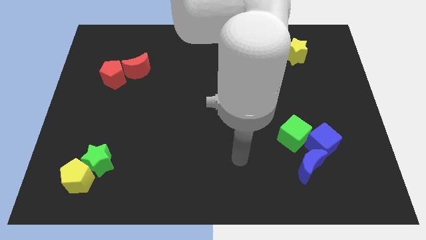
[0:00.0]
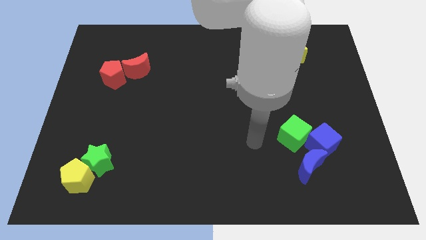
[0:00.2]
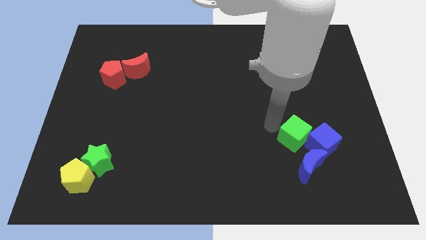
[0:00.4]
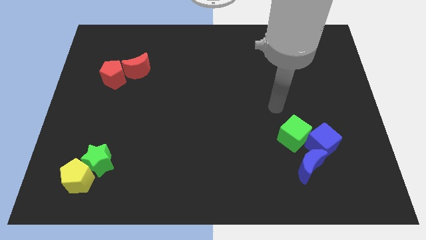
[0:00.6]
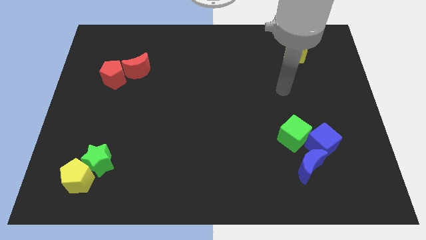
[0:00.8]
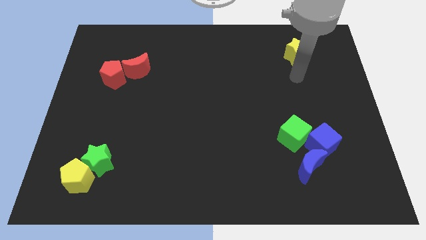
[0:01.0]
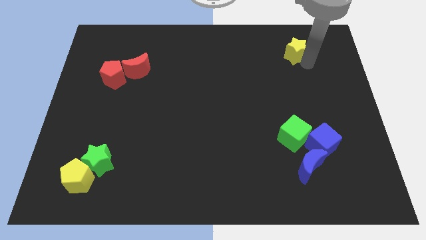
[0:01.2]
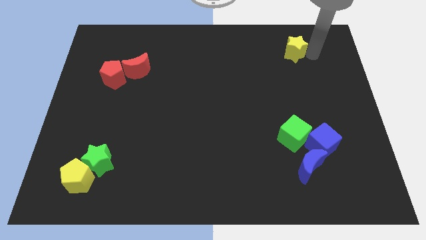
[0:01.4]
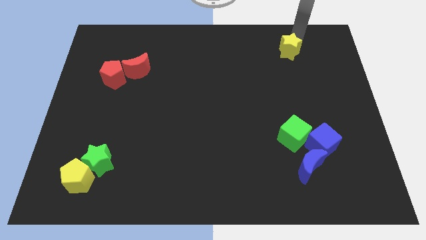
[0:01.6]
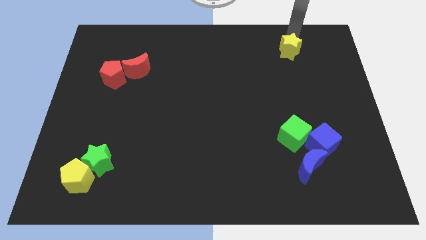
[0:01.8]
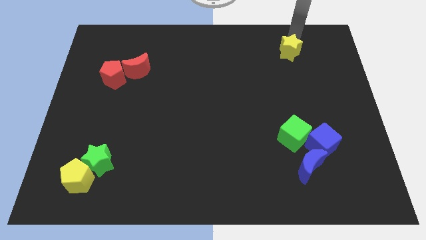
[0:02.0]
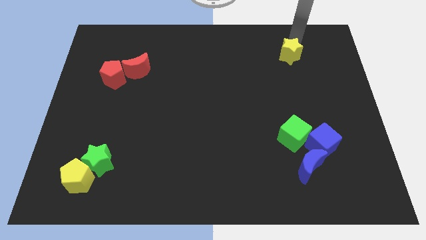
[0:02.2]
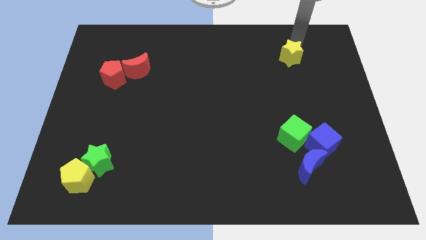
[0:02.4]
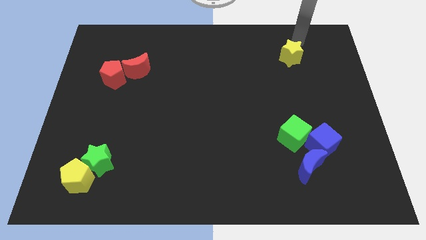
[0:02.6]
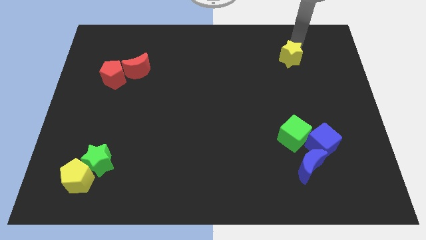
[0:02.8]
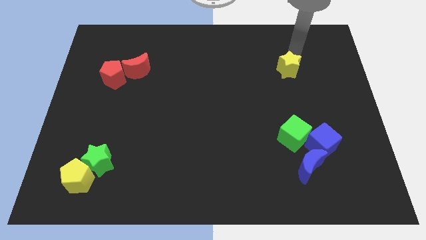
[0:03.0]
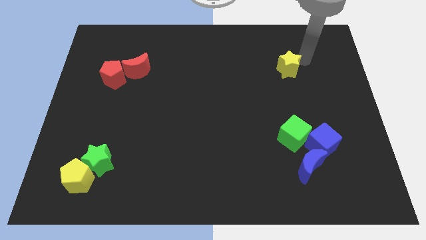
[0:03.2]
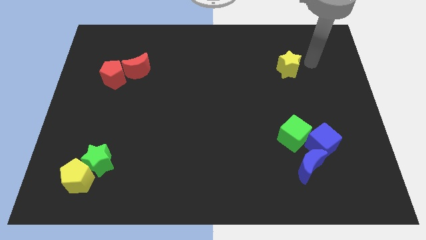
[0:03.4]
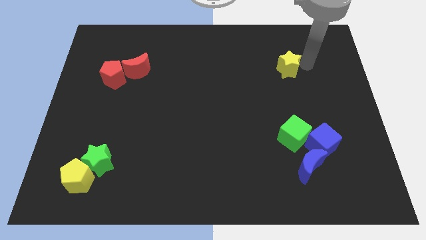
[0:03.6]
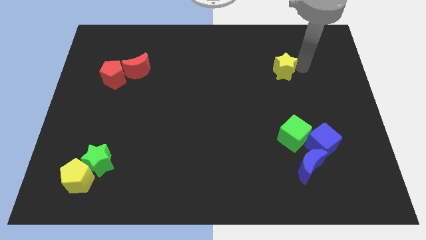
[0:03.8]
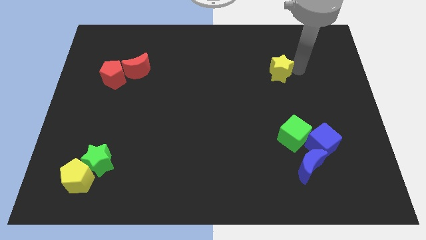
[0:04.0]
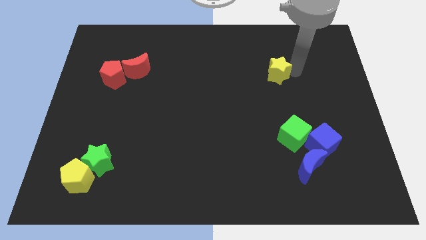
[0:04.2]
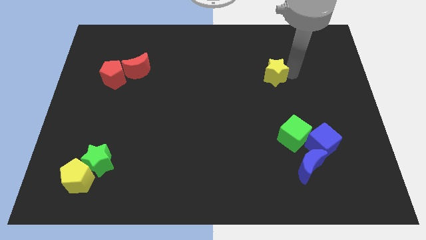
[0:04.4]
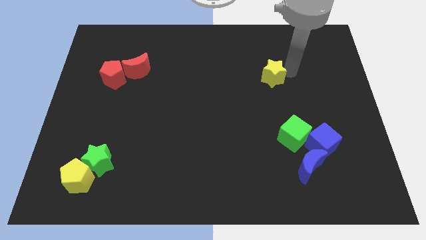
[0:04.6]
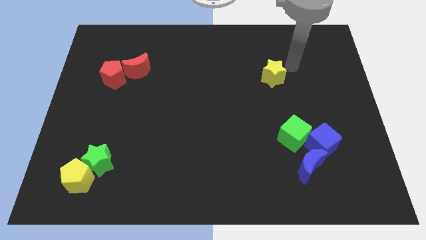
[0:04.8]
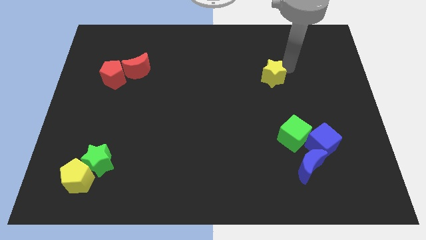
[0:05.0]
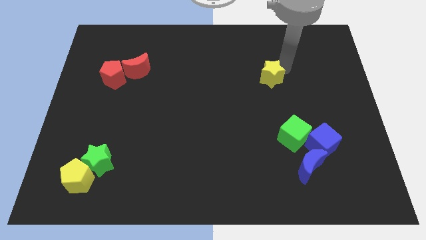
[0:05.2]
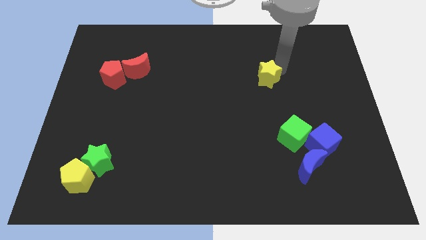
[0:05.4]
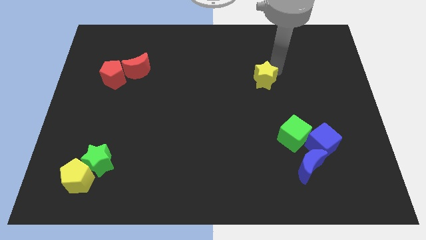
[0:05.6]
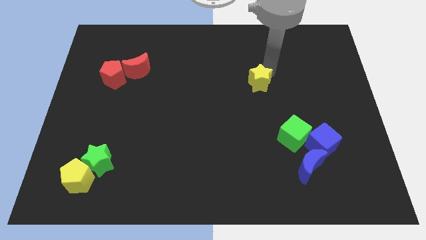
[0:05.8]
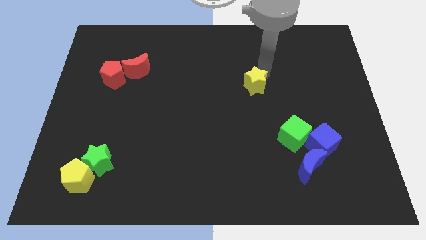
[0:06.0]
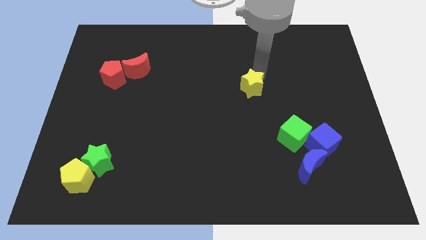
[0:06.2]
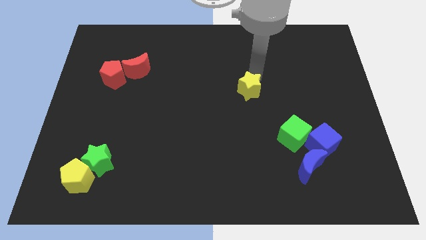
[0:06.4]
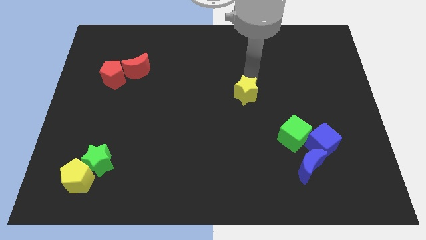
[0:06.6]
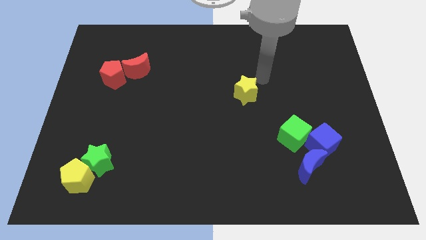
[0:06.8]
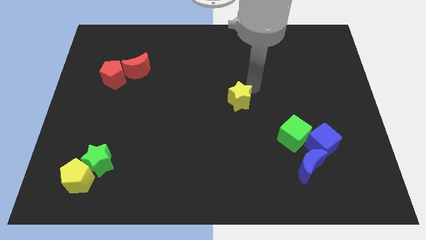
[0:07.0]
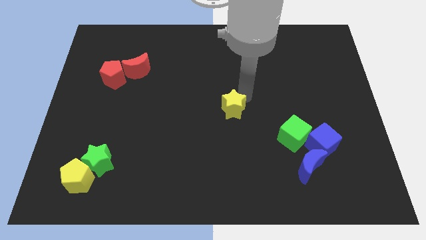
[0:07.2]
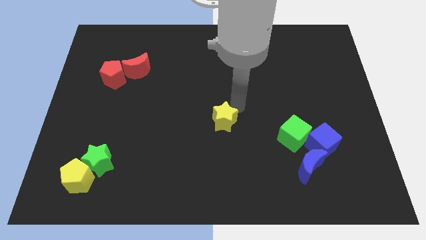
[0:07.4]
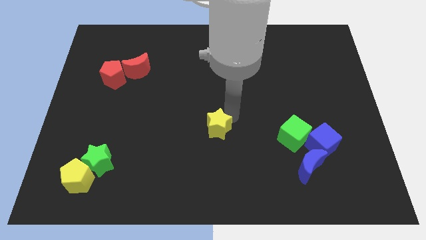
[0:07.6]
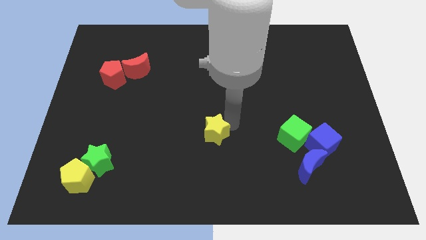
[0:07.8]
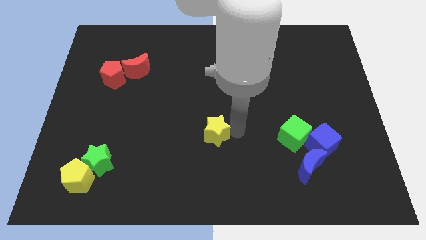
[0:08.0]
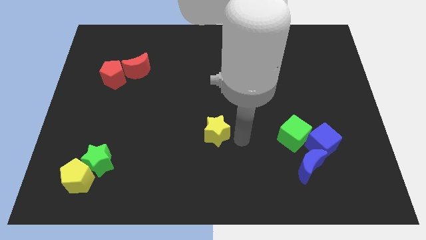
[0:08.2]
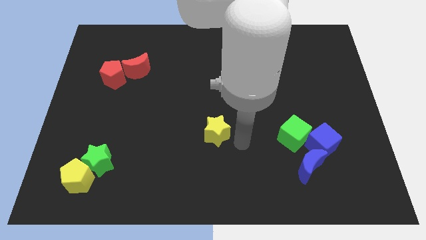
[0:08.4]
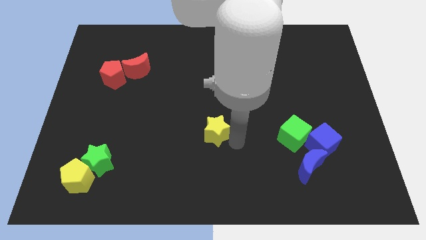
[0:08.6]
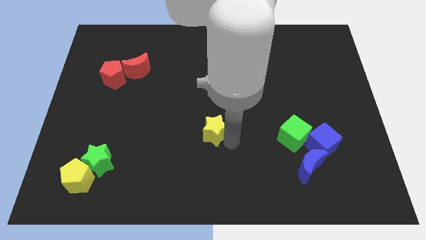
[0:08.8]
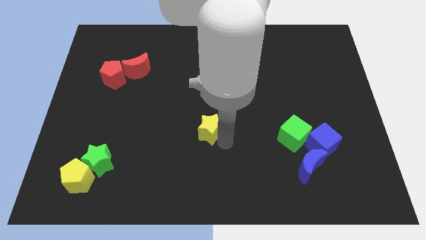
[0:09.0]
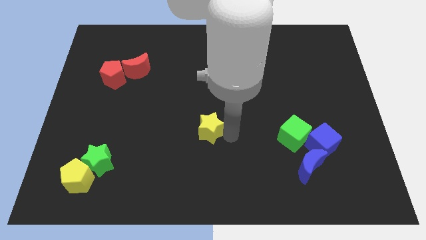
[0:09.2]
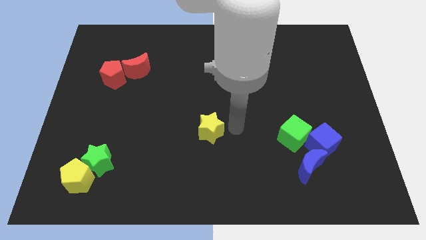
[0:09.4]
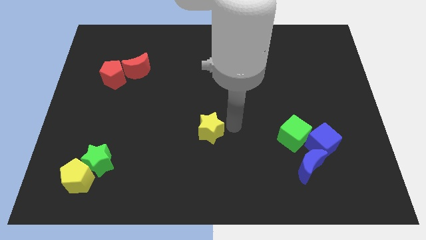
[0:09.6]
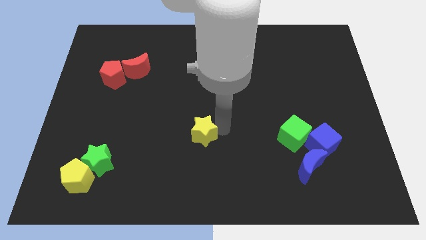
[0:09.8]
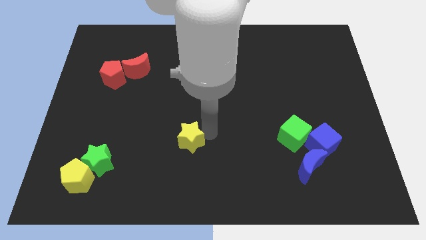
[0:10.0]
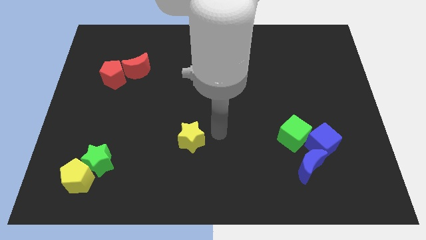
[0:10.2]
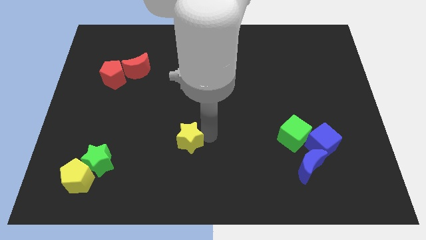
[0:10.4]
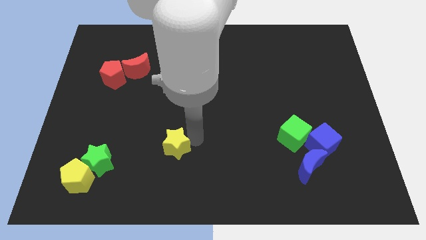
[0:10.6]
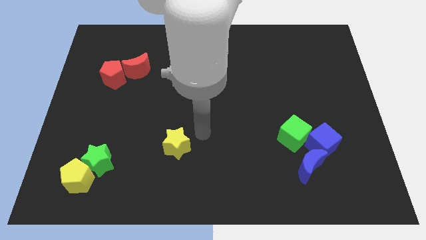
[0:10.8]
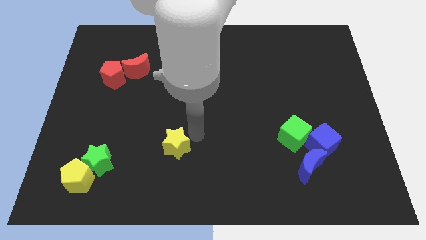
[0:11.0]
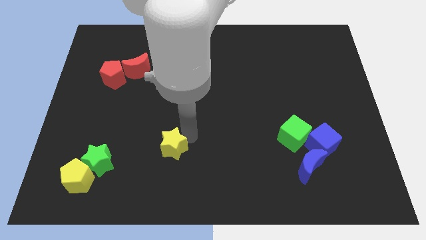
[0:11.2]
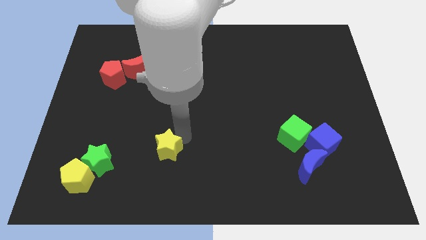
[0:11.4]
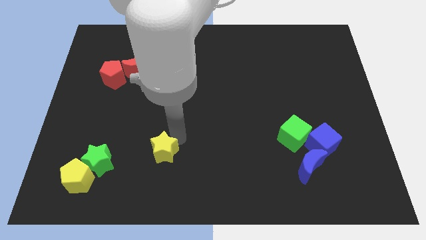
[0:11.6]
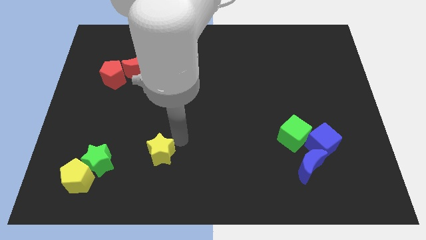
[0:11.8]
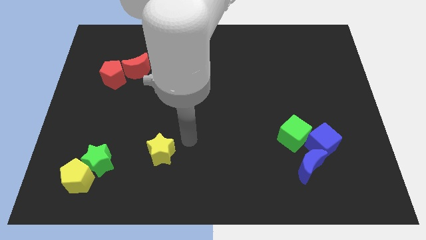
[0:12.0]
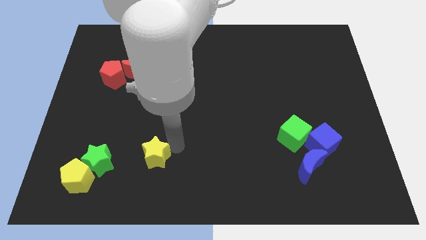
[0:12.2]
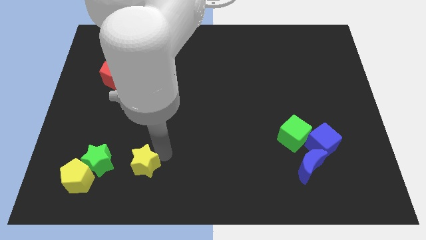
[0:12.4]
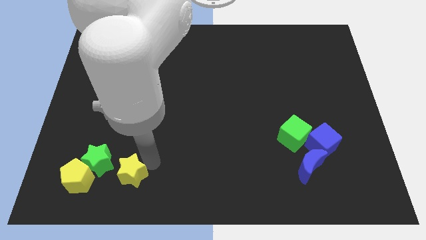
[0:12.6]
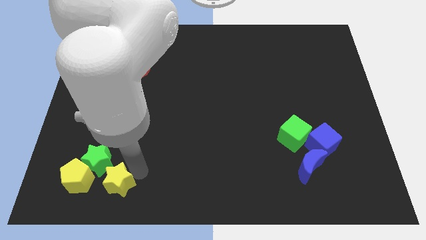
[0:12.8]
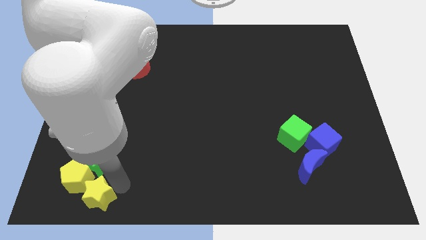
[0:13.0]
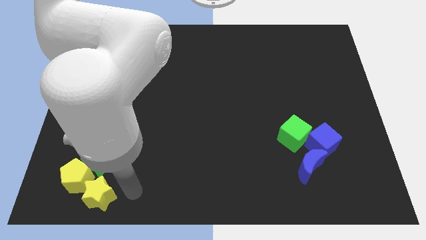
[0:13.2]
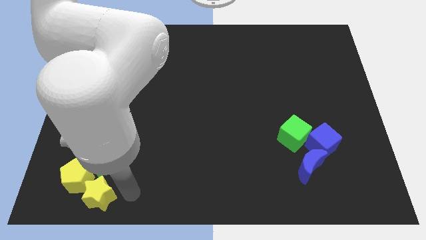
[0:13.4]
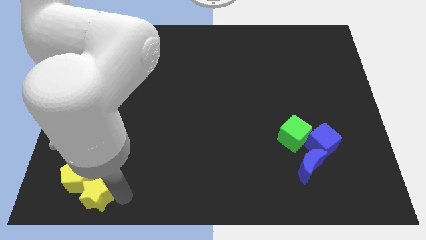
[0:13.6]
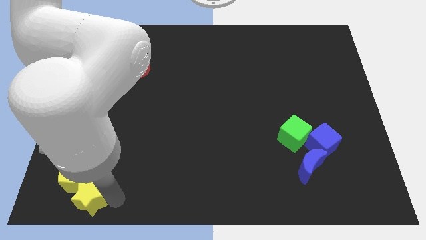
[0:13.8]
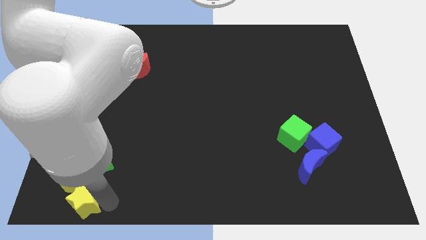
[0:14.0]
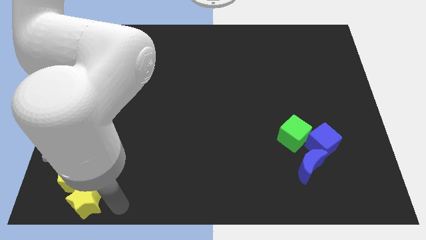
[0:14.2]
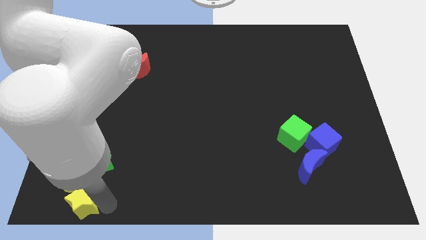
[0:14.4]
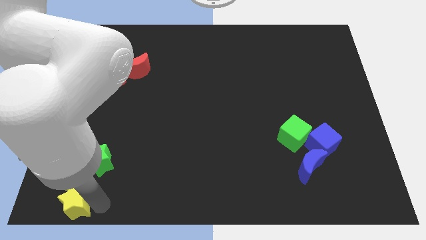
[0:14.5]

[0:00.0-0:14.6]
move the yellow star to the bottom left corner
